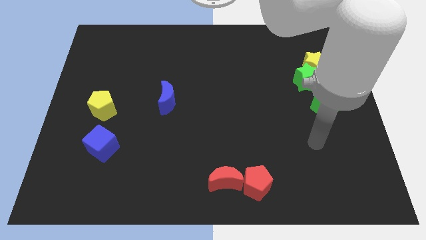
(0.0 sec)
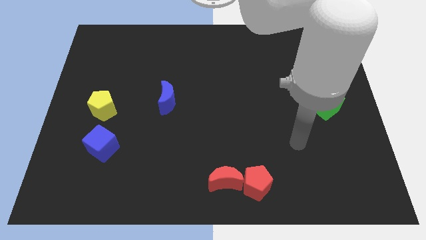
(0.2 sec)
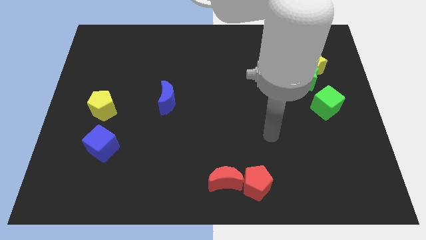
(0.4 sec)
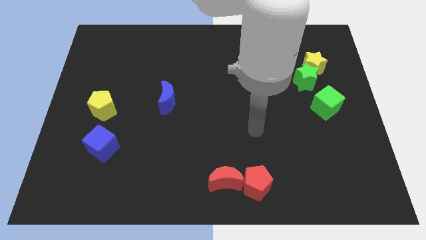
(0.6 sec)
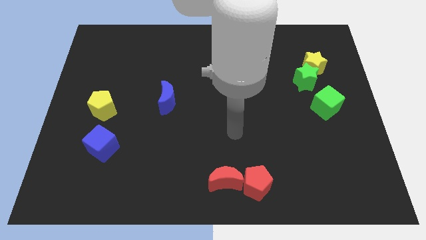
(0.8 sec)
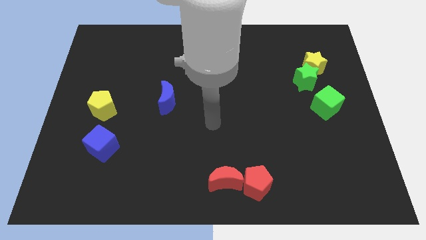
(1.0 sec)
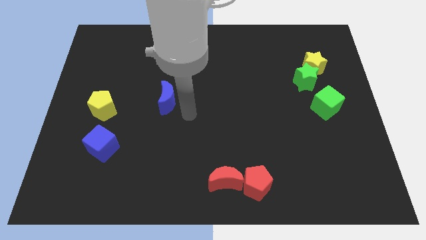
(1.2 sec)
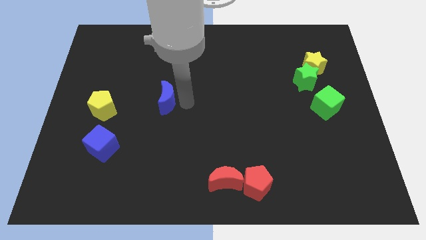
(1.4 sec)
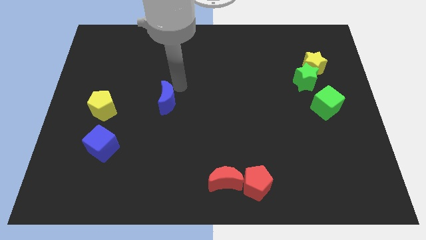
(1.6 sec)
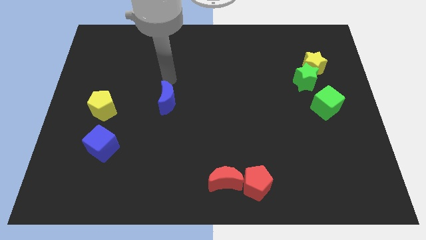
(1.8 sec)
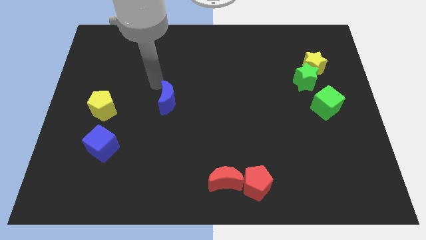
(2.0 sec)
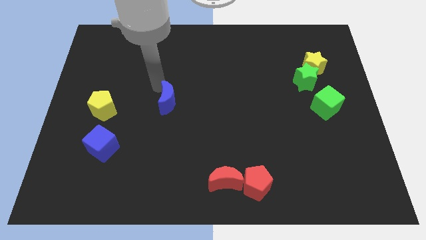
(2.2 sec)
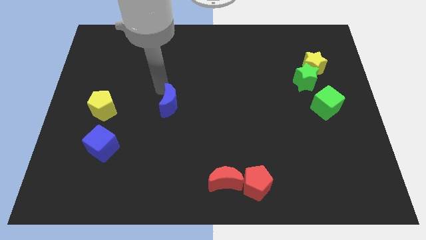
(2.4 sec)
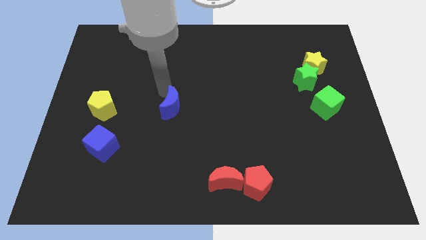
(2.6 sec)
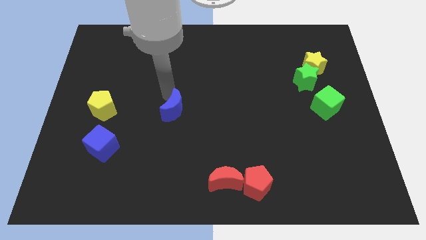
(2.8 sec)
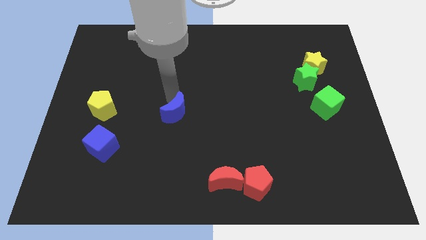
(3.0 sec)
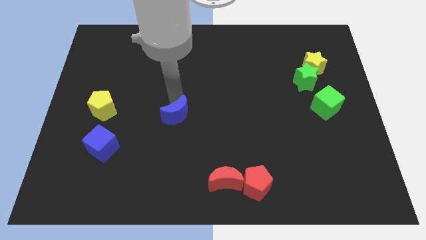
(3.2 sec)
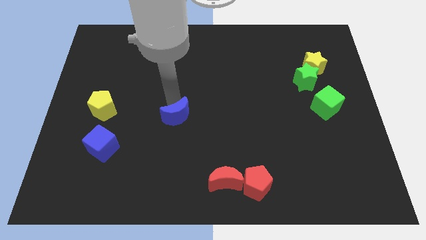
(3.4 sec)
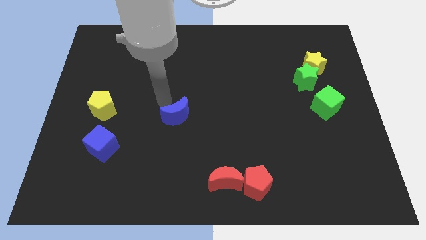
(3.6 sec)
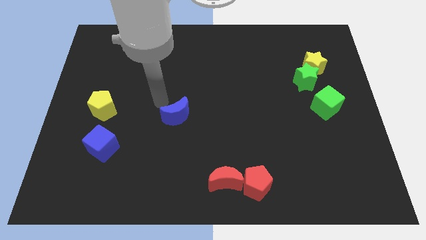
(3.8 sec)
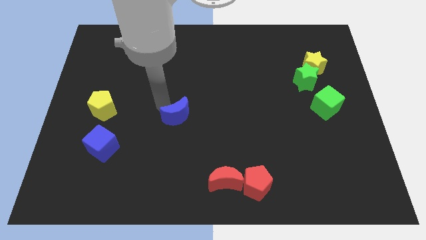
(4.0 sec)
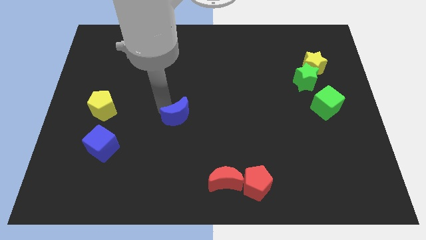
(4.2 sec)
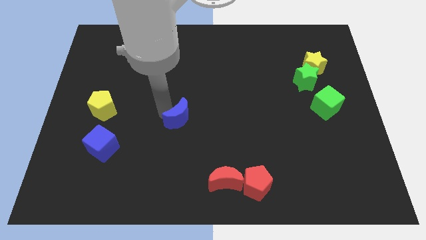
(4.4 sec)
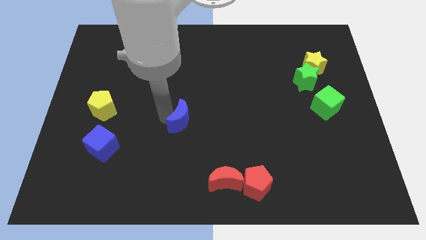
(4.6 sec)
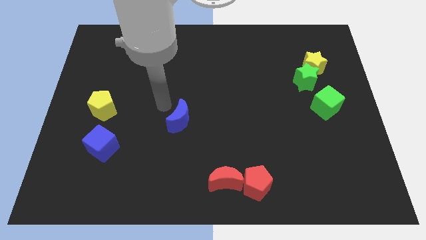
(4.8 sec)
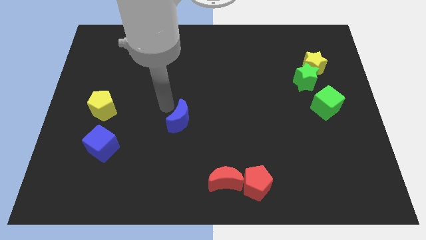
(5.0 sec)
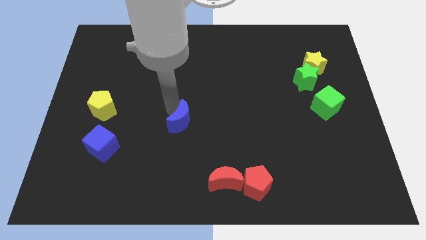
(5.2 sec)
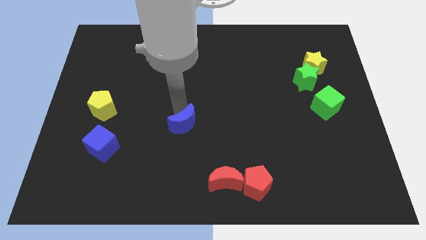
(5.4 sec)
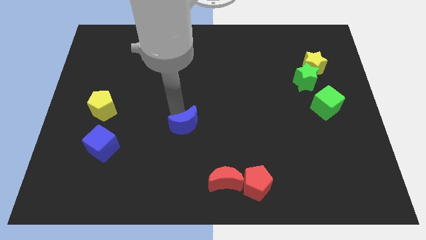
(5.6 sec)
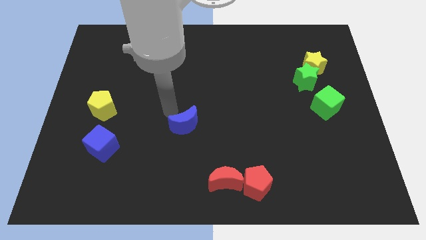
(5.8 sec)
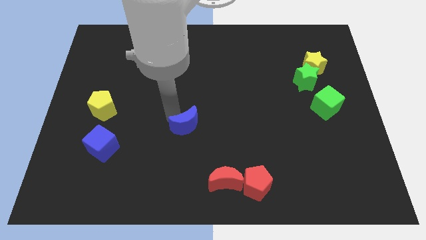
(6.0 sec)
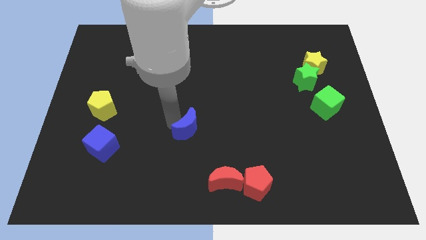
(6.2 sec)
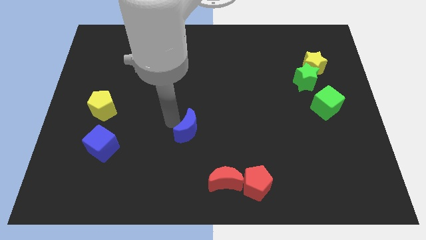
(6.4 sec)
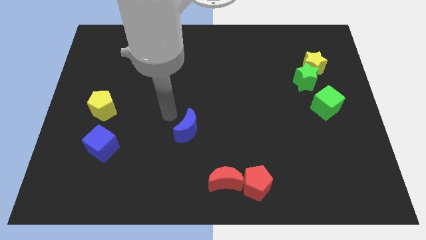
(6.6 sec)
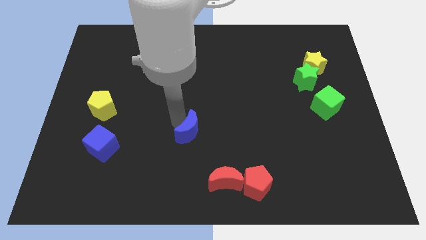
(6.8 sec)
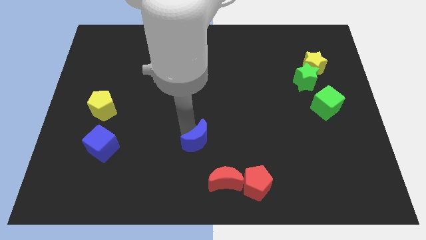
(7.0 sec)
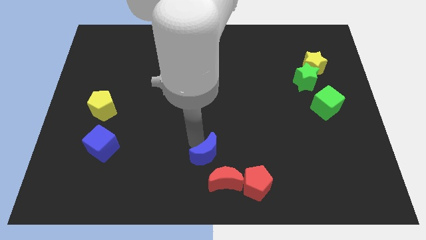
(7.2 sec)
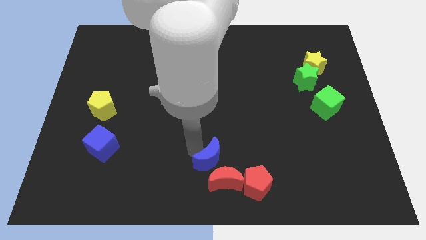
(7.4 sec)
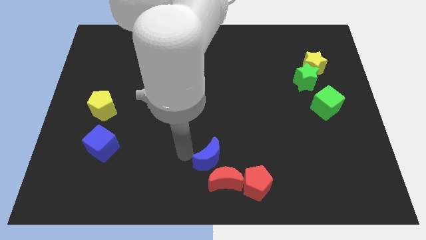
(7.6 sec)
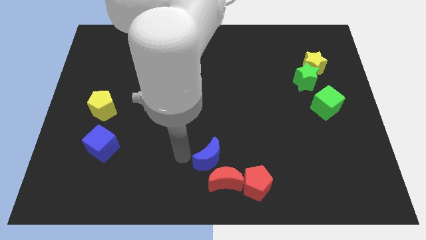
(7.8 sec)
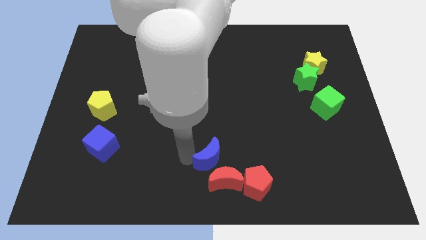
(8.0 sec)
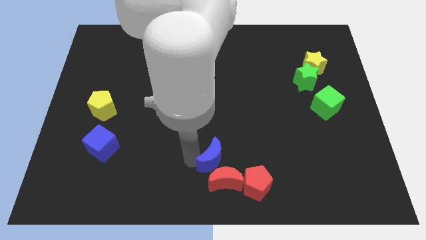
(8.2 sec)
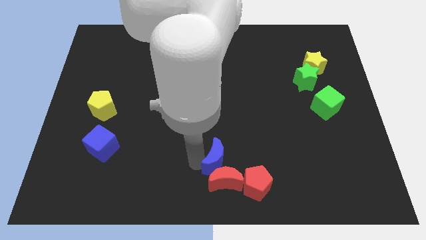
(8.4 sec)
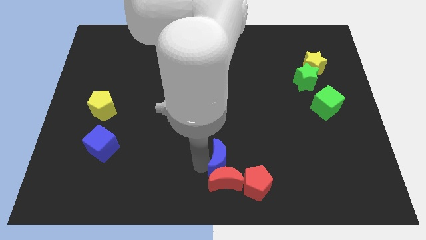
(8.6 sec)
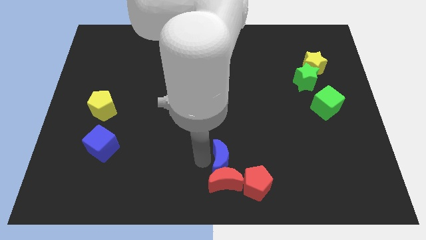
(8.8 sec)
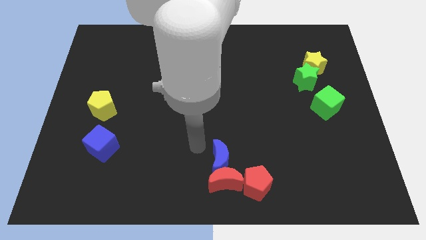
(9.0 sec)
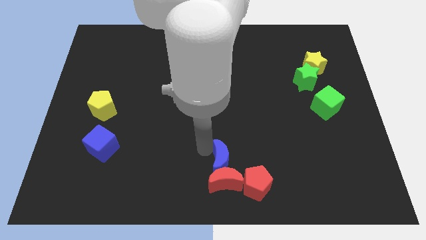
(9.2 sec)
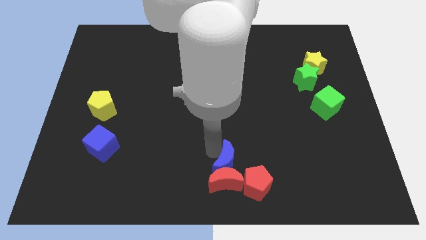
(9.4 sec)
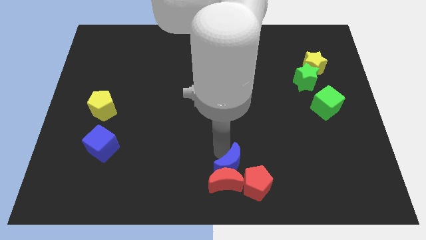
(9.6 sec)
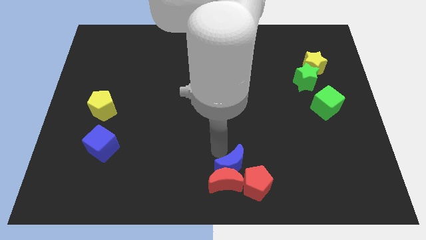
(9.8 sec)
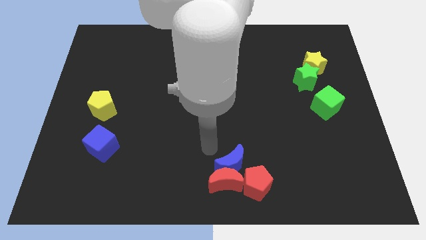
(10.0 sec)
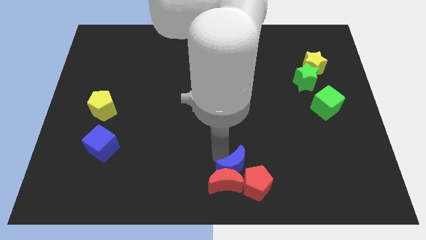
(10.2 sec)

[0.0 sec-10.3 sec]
slide the blue moon to the red pentagon

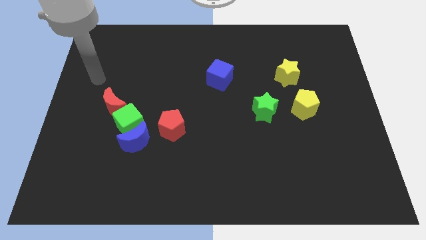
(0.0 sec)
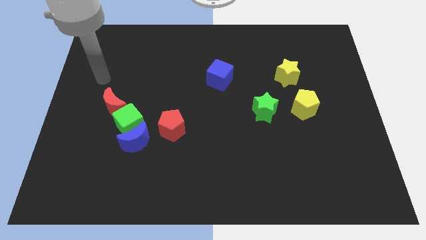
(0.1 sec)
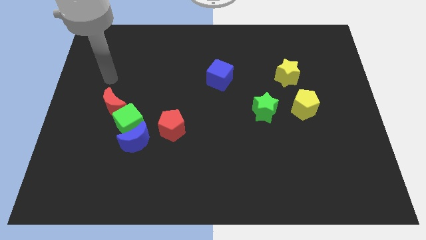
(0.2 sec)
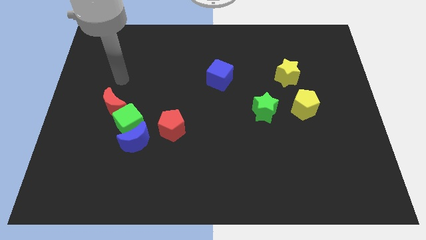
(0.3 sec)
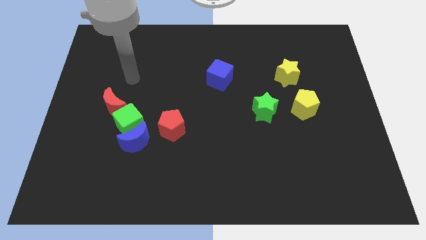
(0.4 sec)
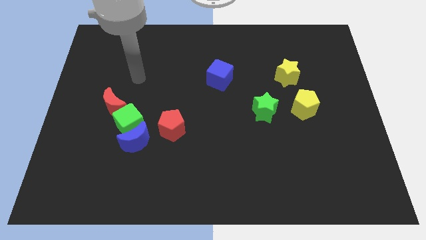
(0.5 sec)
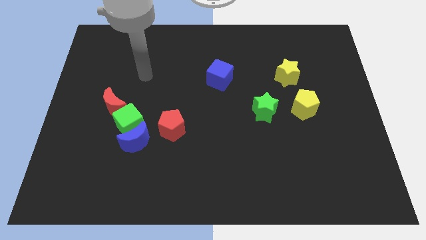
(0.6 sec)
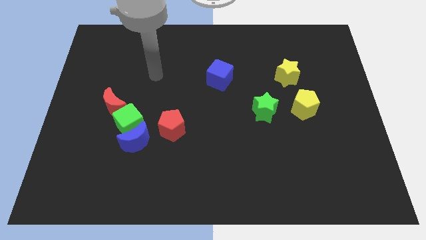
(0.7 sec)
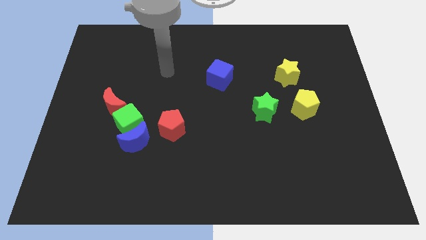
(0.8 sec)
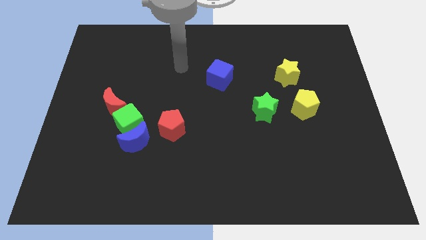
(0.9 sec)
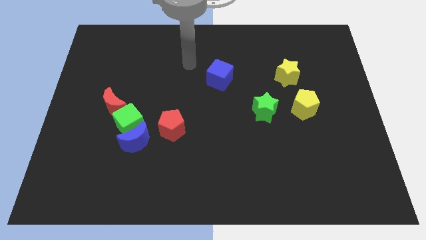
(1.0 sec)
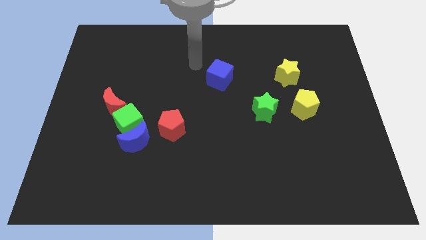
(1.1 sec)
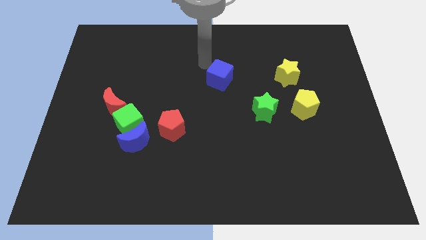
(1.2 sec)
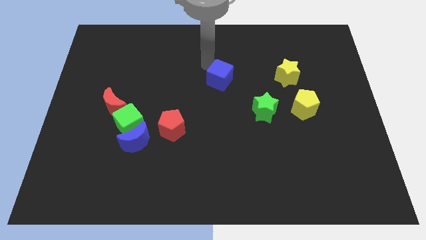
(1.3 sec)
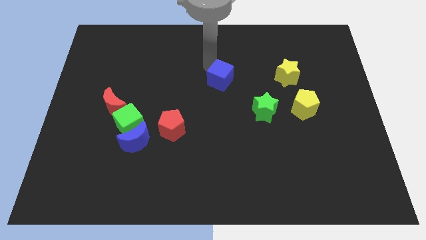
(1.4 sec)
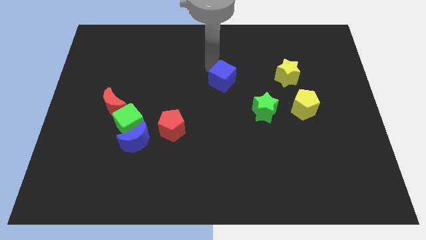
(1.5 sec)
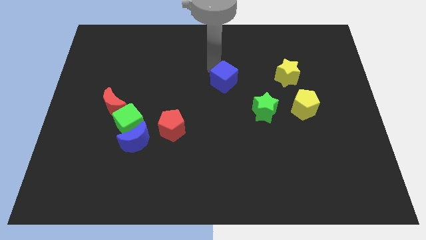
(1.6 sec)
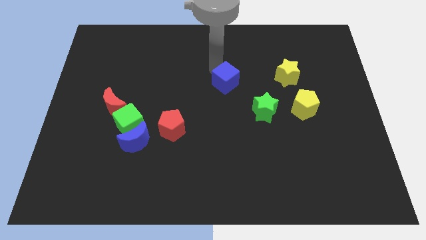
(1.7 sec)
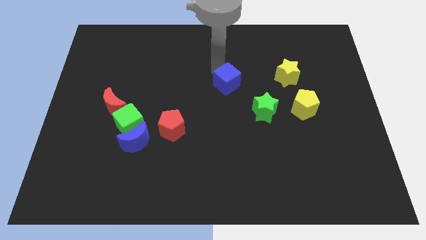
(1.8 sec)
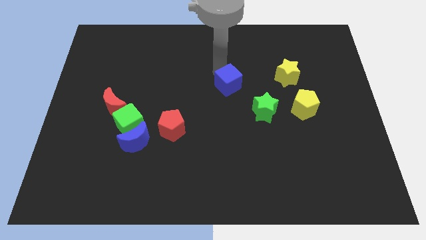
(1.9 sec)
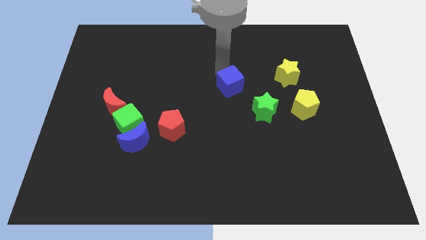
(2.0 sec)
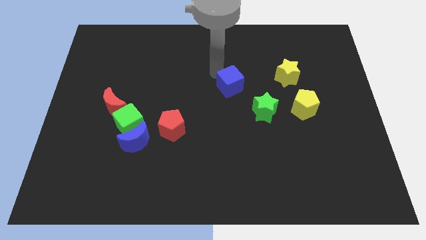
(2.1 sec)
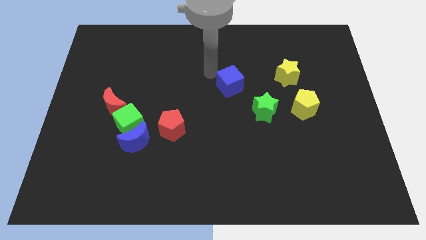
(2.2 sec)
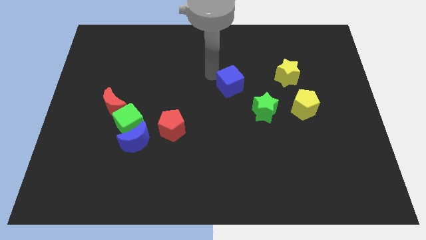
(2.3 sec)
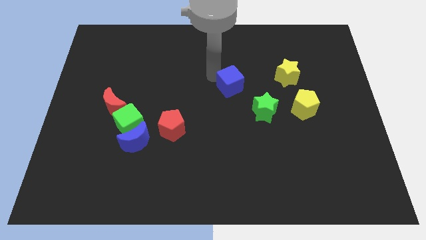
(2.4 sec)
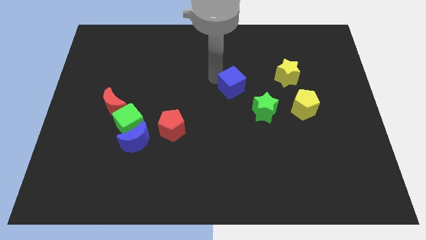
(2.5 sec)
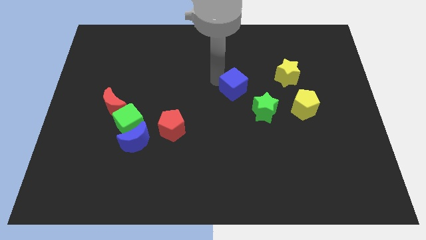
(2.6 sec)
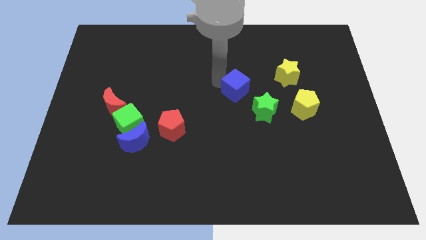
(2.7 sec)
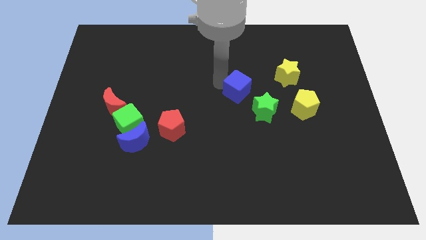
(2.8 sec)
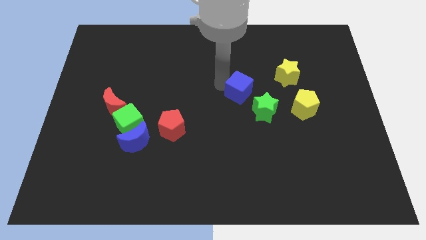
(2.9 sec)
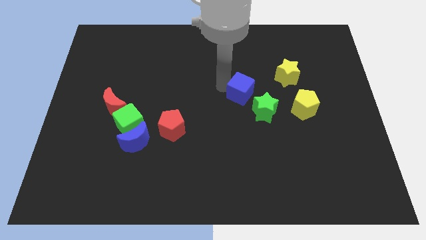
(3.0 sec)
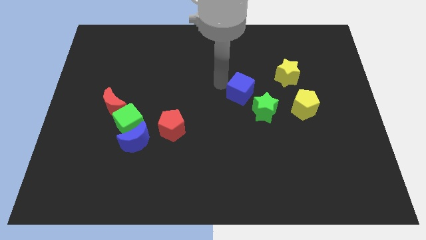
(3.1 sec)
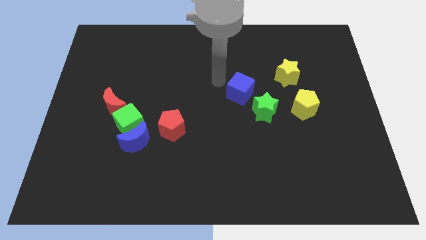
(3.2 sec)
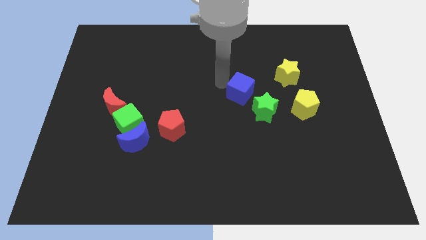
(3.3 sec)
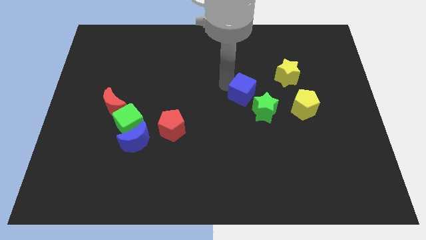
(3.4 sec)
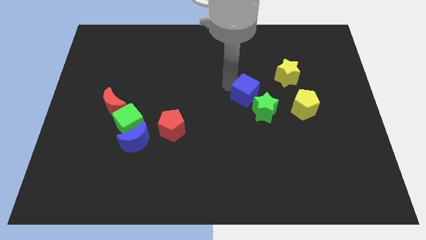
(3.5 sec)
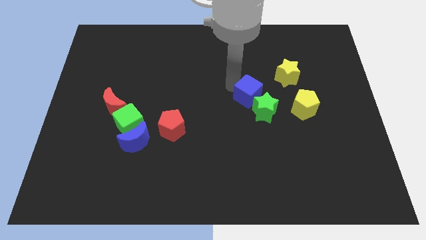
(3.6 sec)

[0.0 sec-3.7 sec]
put the blue cube to the green star
